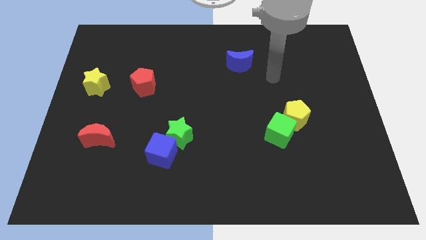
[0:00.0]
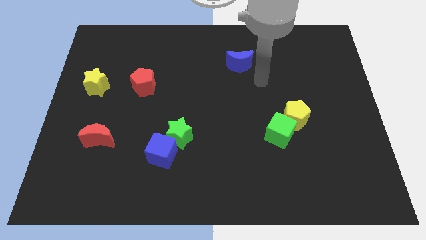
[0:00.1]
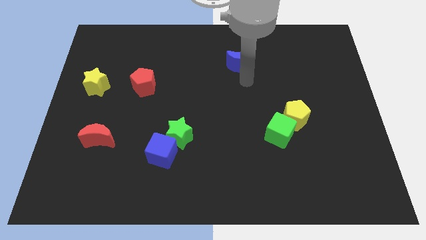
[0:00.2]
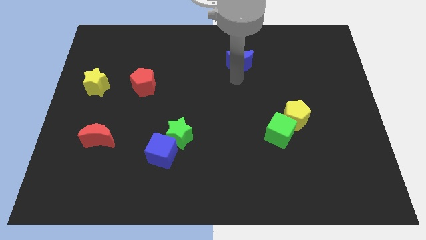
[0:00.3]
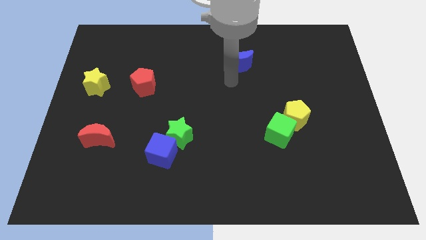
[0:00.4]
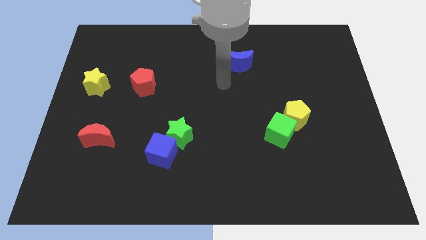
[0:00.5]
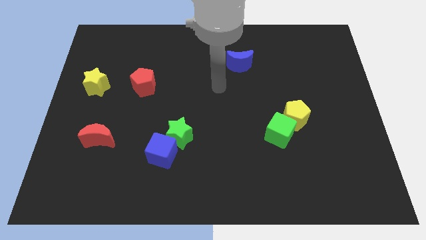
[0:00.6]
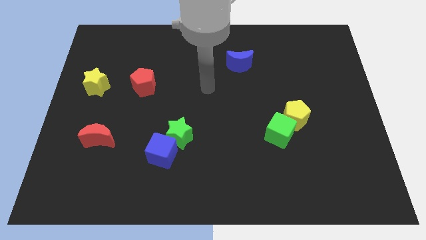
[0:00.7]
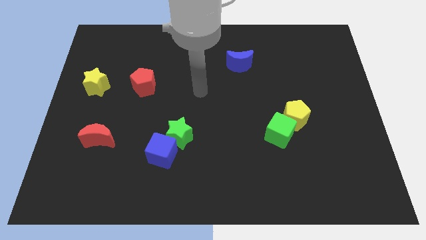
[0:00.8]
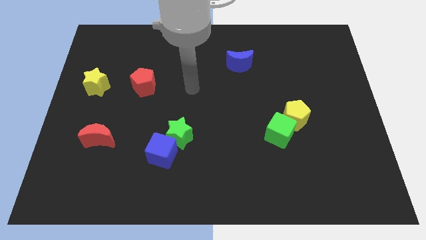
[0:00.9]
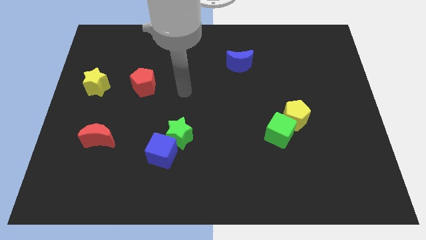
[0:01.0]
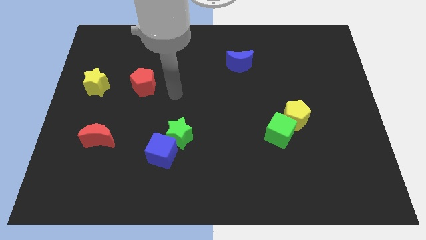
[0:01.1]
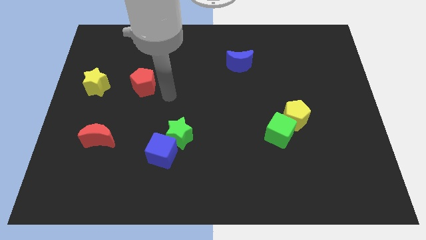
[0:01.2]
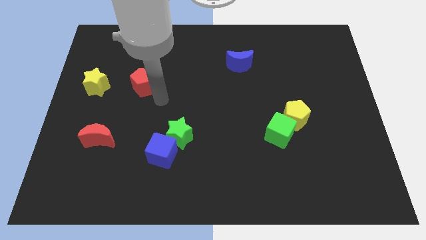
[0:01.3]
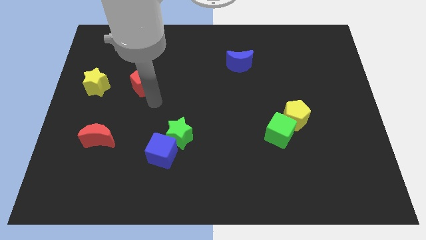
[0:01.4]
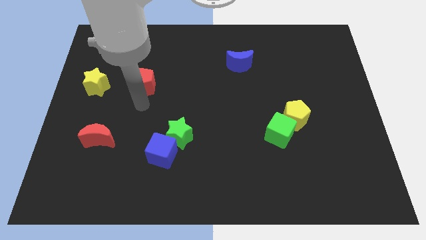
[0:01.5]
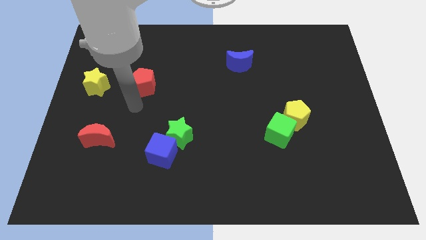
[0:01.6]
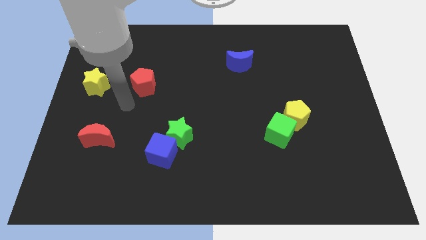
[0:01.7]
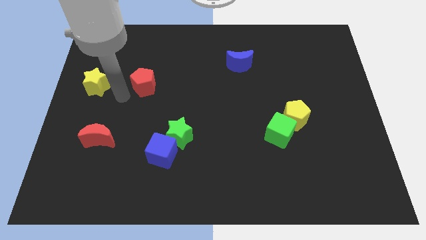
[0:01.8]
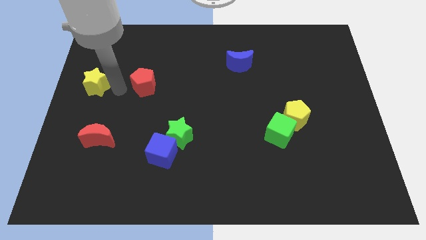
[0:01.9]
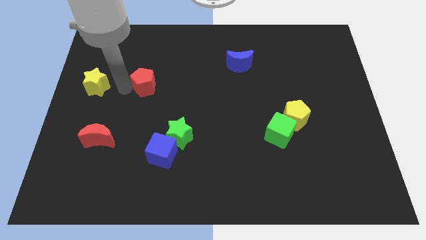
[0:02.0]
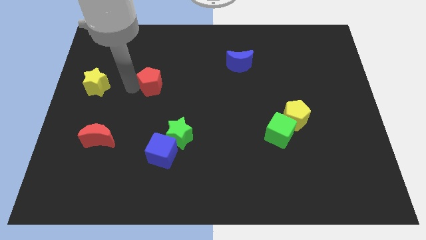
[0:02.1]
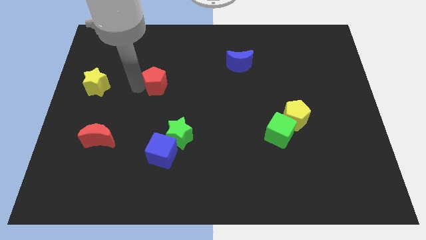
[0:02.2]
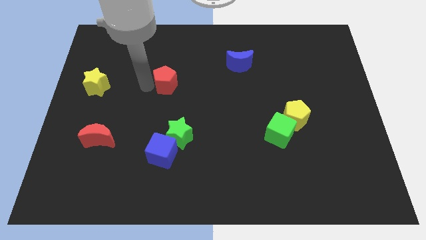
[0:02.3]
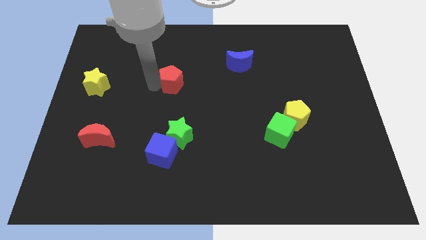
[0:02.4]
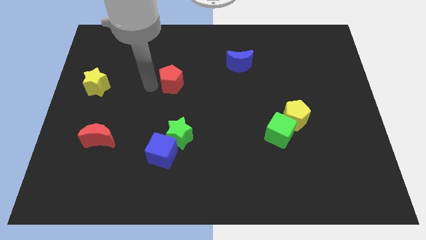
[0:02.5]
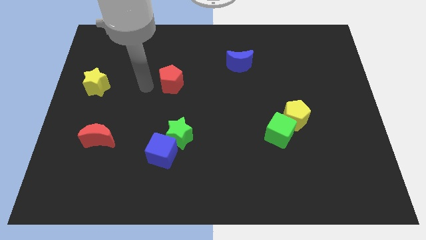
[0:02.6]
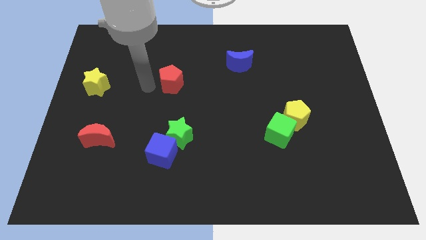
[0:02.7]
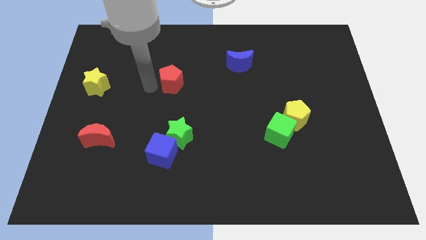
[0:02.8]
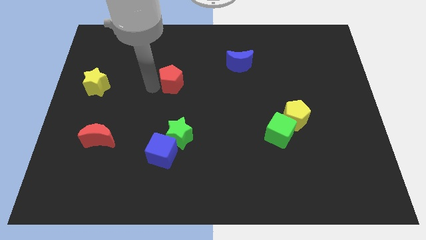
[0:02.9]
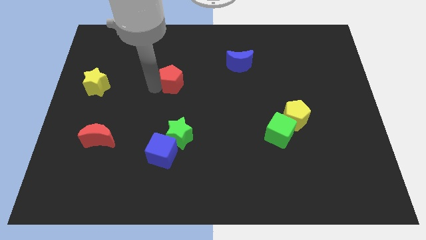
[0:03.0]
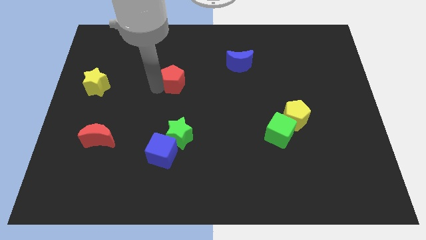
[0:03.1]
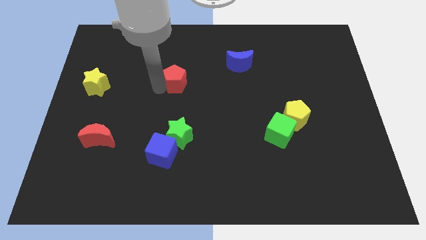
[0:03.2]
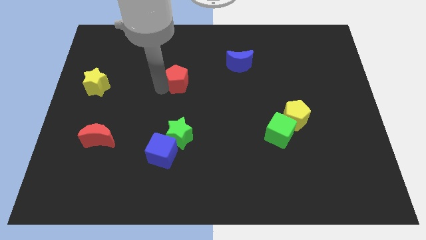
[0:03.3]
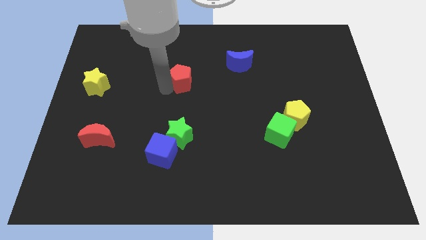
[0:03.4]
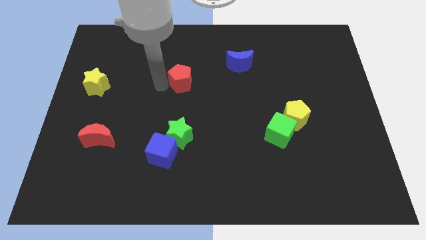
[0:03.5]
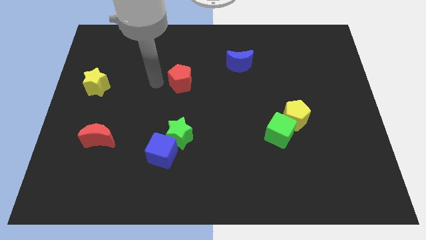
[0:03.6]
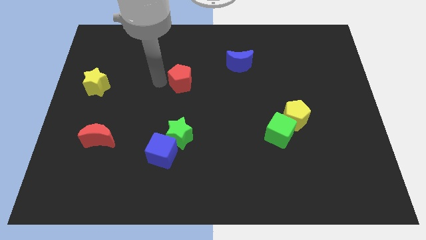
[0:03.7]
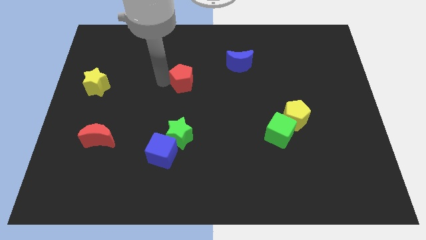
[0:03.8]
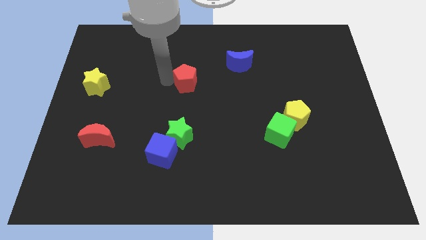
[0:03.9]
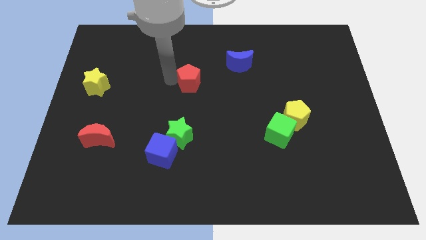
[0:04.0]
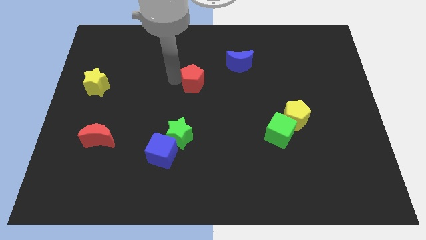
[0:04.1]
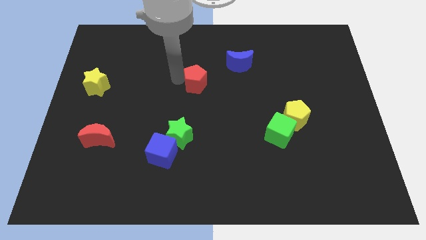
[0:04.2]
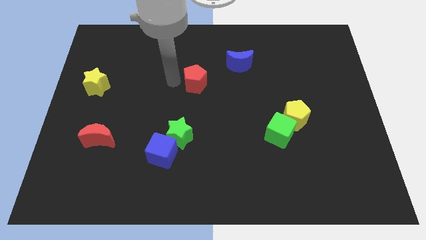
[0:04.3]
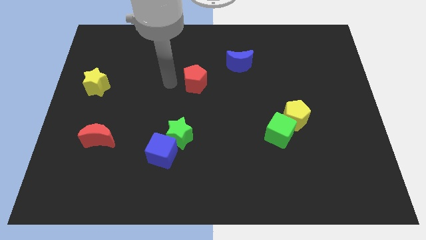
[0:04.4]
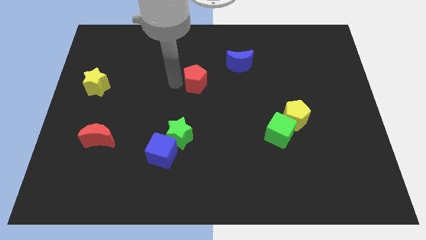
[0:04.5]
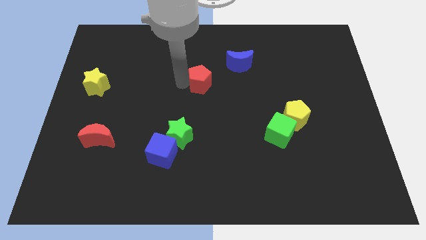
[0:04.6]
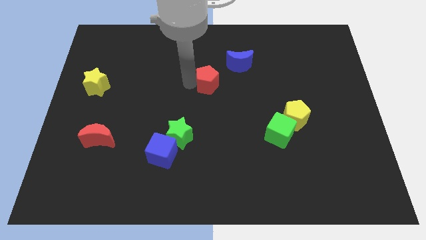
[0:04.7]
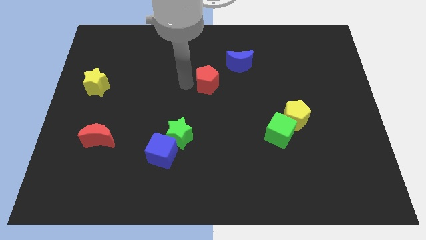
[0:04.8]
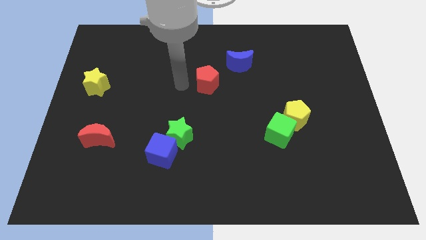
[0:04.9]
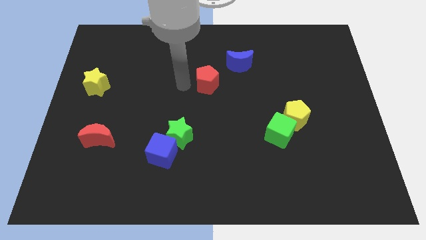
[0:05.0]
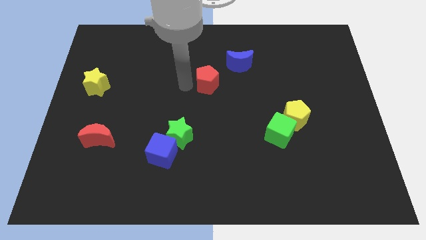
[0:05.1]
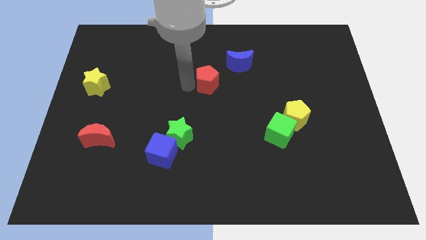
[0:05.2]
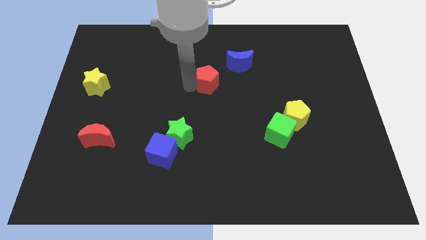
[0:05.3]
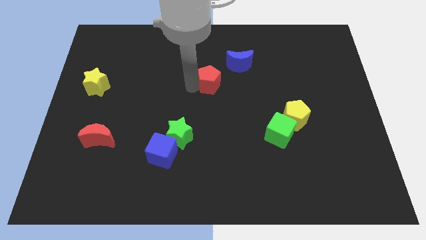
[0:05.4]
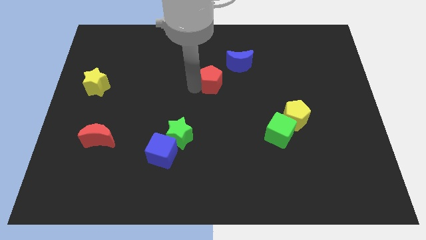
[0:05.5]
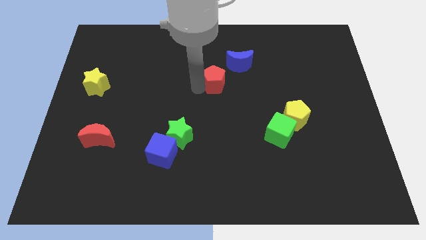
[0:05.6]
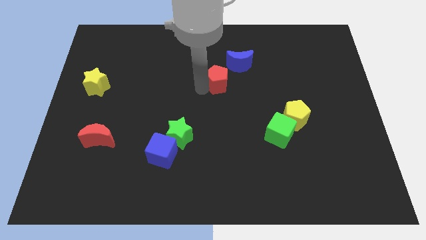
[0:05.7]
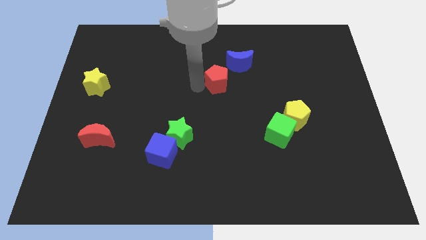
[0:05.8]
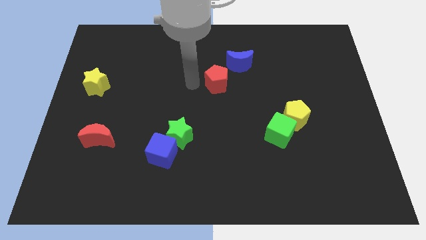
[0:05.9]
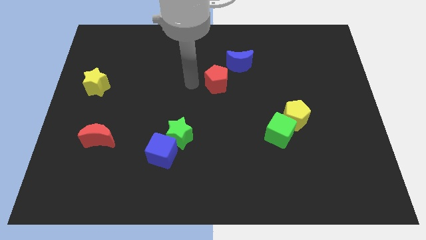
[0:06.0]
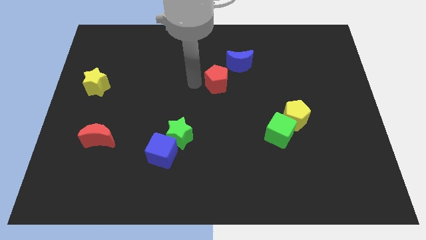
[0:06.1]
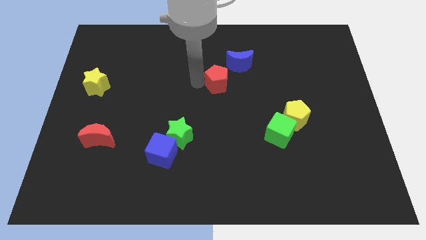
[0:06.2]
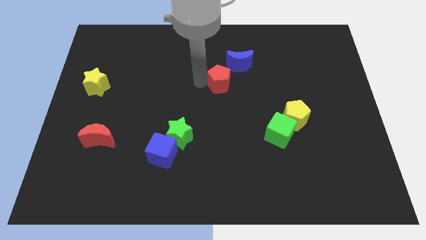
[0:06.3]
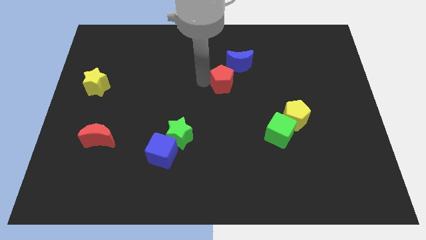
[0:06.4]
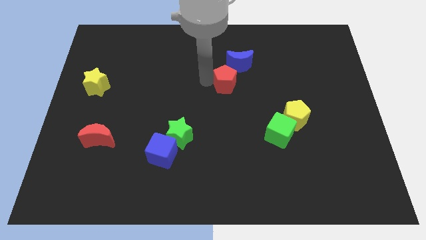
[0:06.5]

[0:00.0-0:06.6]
push the red pentagon right

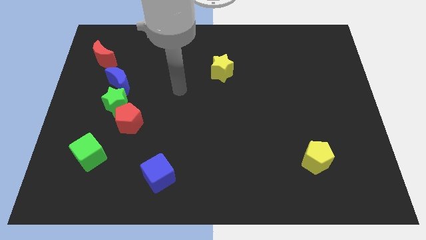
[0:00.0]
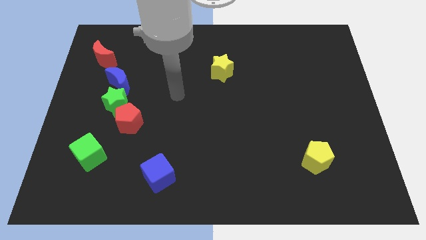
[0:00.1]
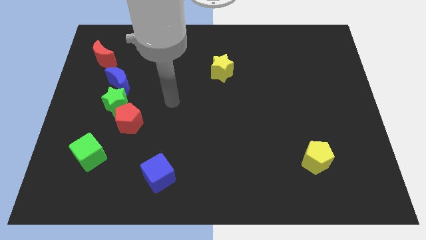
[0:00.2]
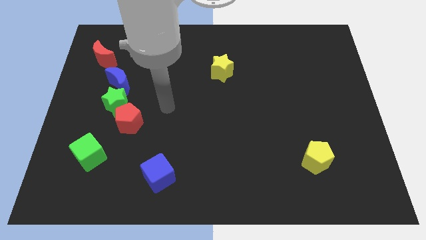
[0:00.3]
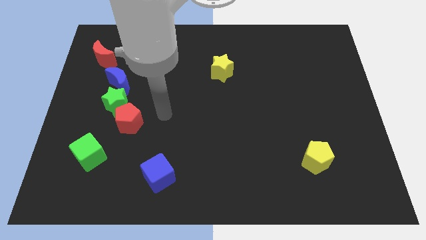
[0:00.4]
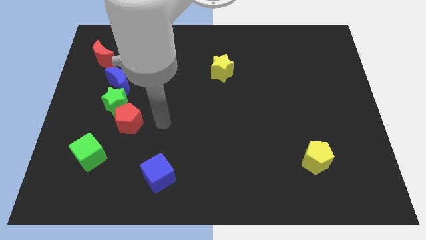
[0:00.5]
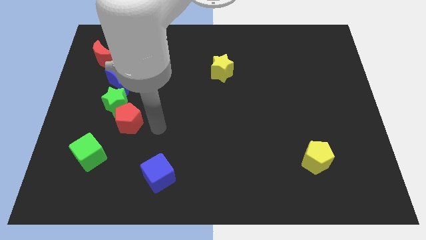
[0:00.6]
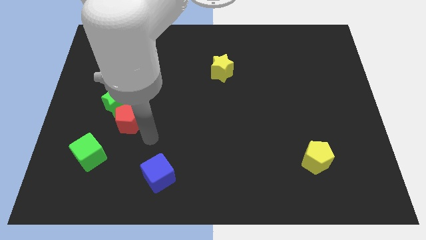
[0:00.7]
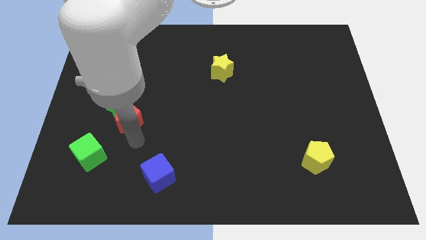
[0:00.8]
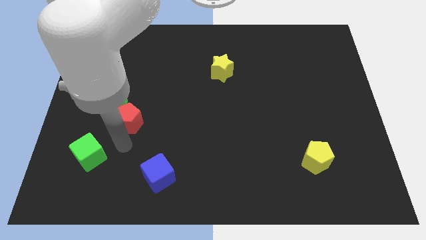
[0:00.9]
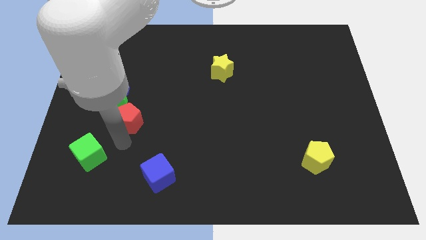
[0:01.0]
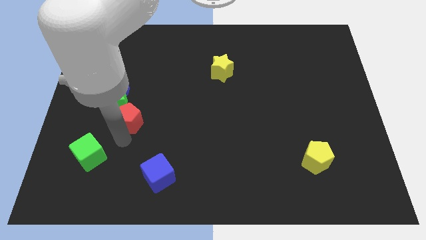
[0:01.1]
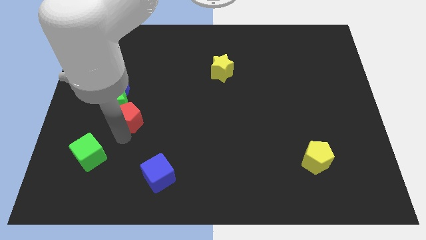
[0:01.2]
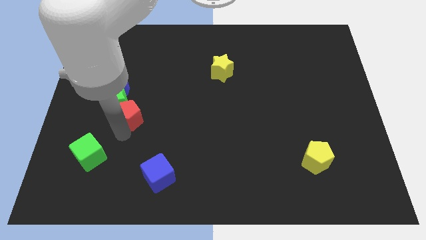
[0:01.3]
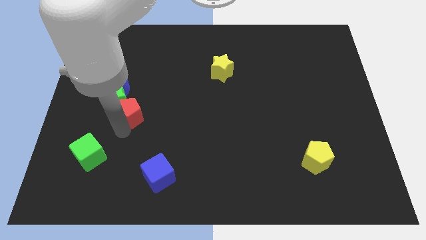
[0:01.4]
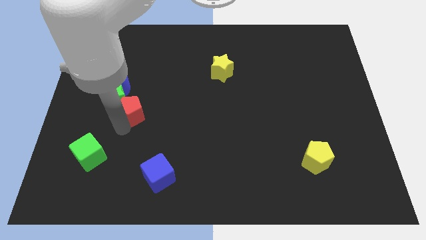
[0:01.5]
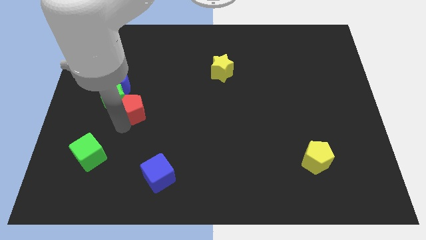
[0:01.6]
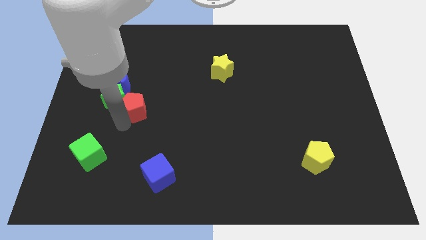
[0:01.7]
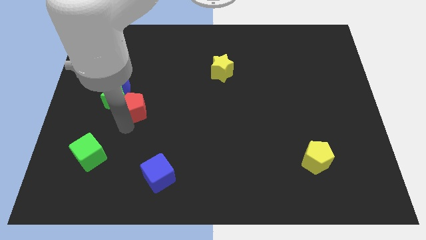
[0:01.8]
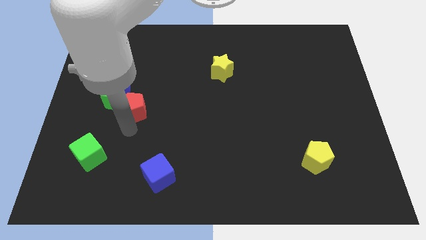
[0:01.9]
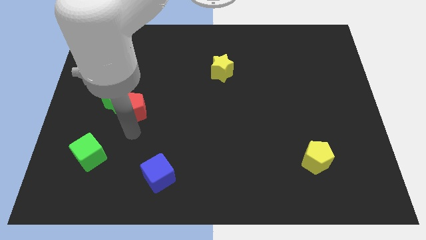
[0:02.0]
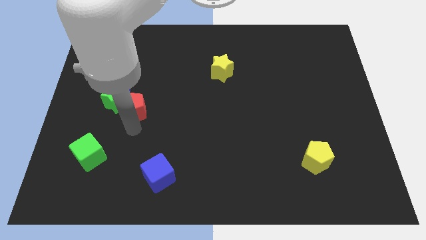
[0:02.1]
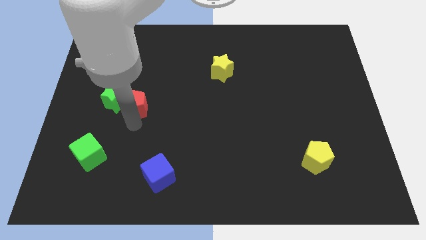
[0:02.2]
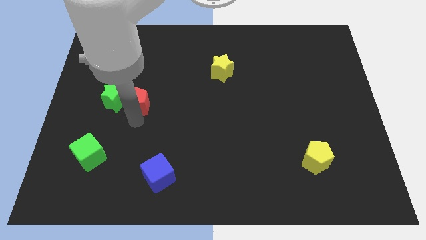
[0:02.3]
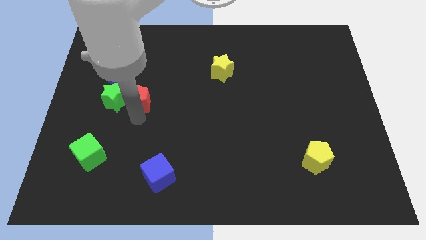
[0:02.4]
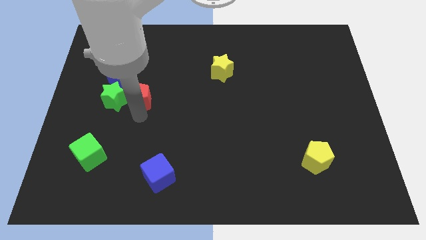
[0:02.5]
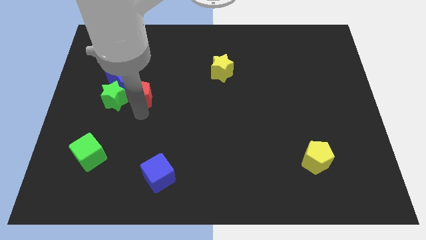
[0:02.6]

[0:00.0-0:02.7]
slightly slide the red pentagon up
